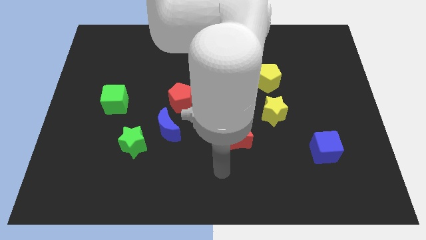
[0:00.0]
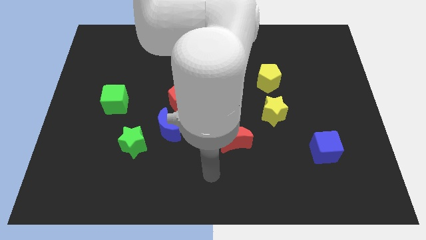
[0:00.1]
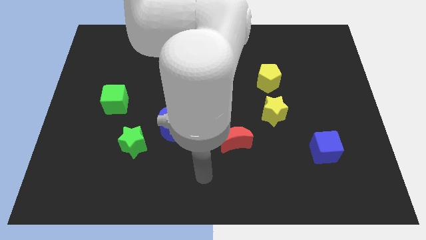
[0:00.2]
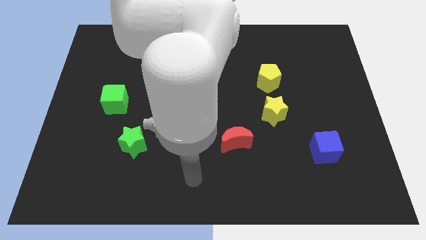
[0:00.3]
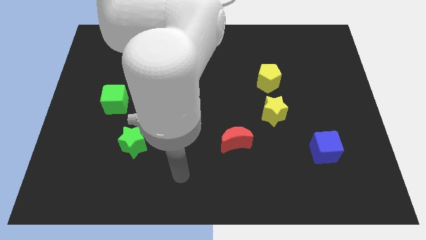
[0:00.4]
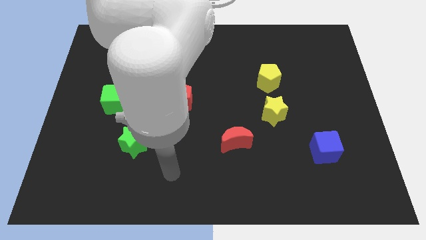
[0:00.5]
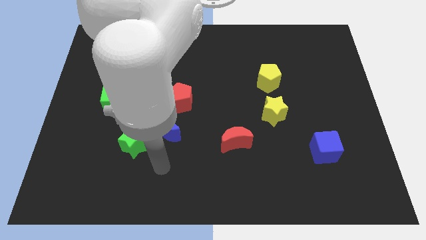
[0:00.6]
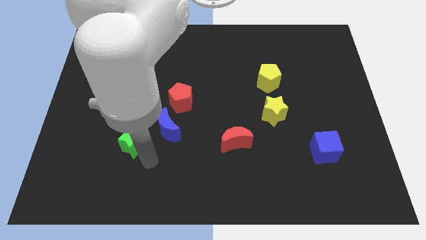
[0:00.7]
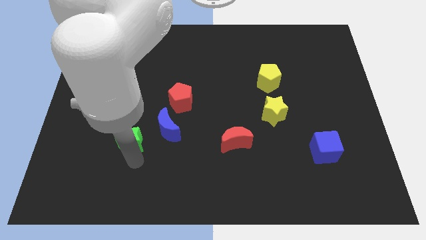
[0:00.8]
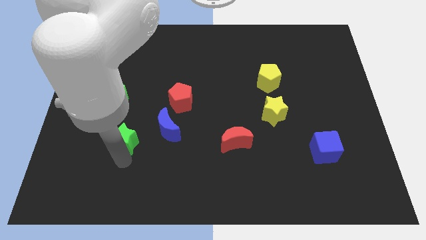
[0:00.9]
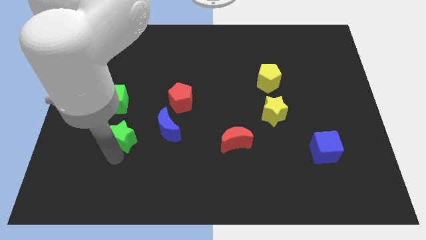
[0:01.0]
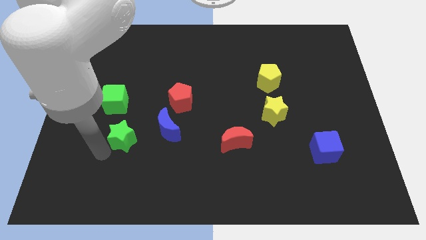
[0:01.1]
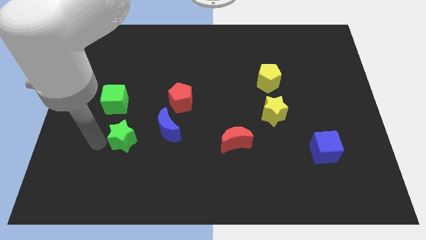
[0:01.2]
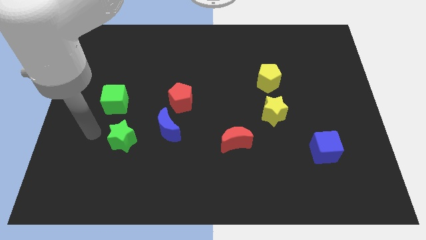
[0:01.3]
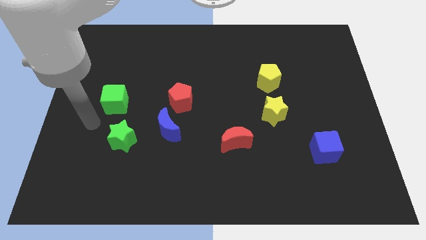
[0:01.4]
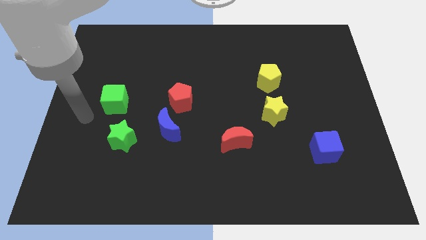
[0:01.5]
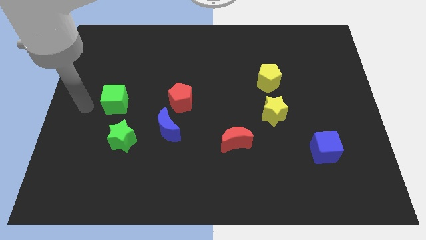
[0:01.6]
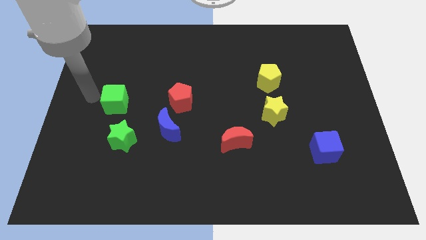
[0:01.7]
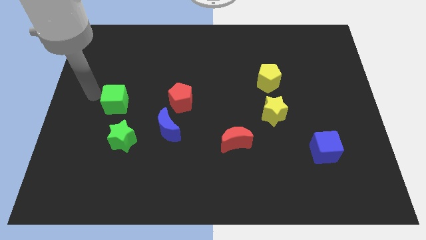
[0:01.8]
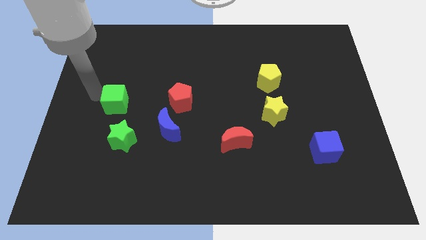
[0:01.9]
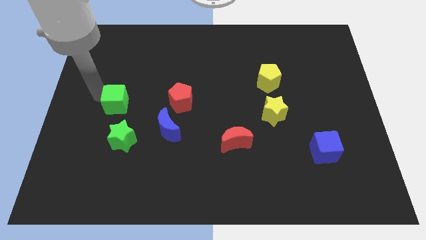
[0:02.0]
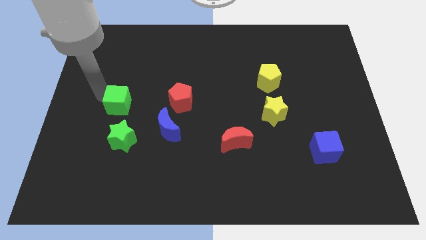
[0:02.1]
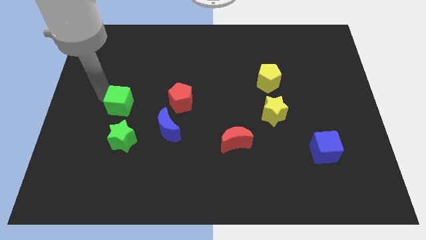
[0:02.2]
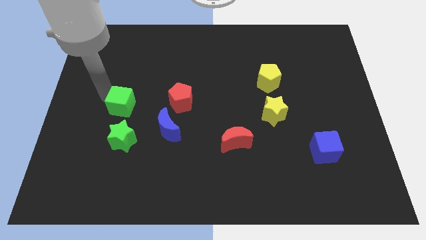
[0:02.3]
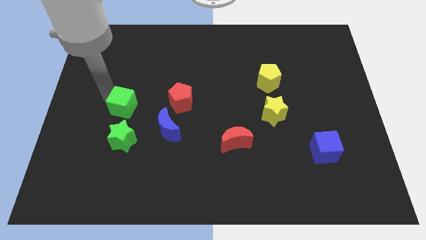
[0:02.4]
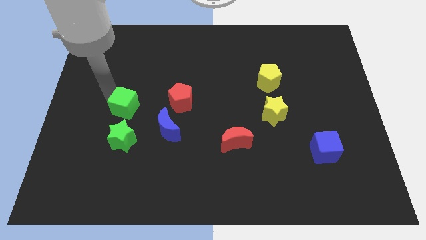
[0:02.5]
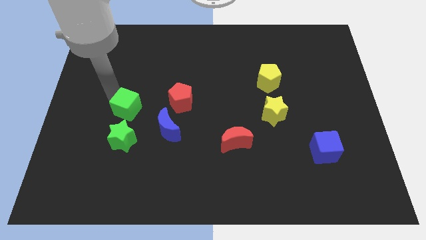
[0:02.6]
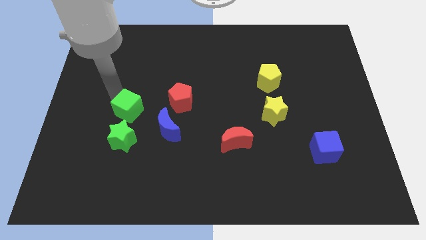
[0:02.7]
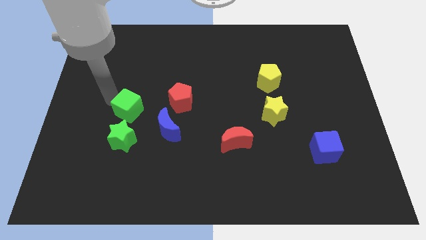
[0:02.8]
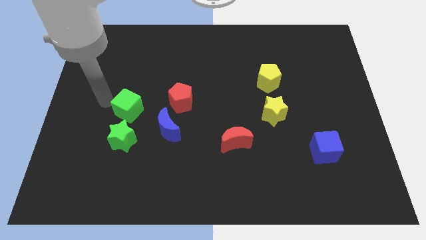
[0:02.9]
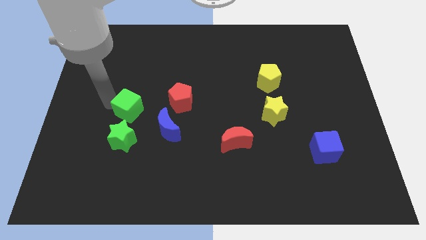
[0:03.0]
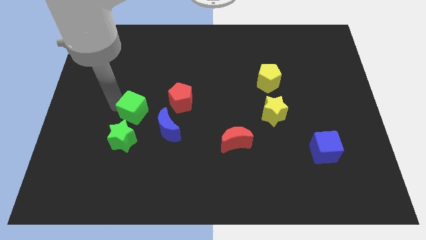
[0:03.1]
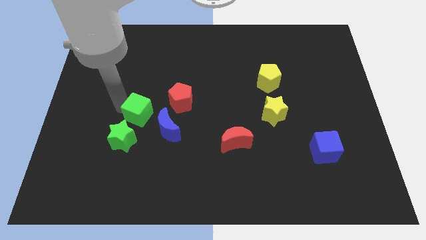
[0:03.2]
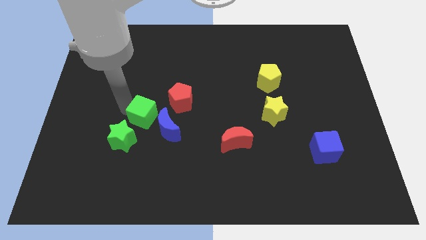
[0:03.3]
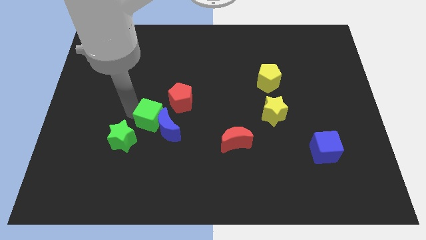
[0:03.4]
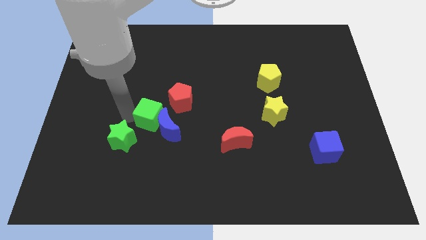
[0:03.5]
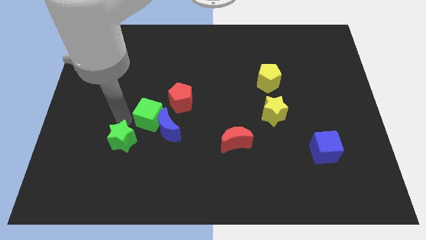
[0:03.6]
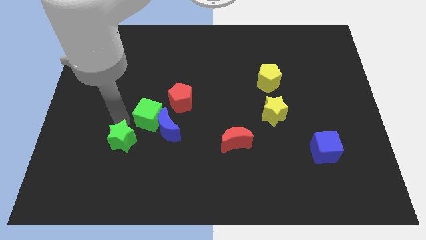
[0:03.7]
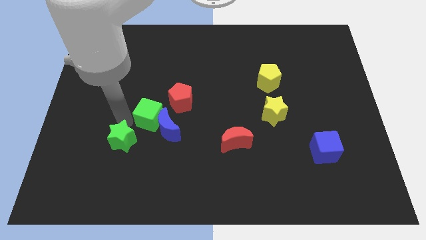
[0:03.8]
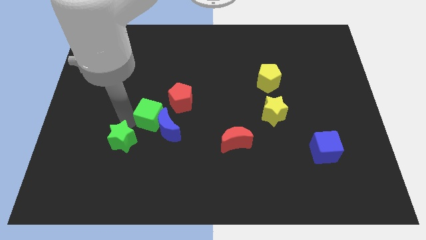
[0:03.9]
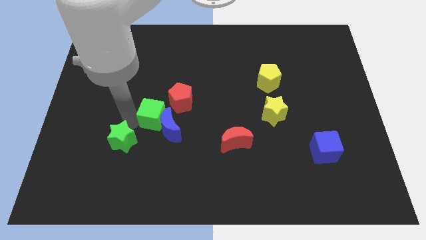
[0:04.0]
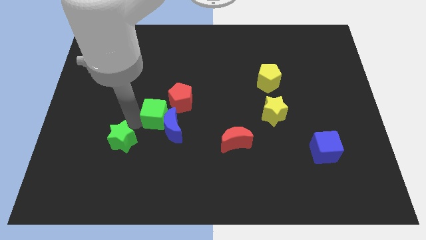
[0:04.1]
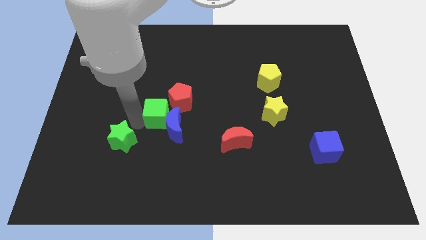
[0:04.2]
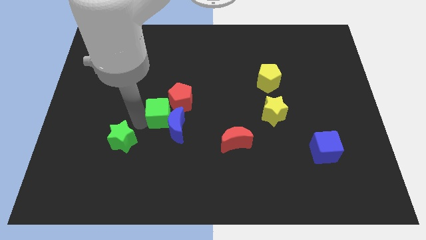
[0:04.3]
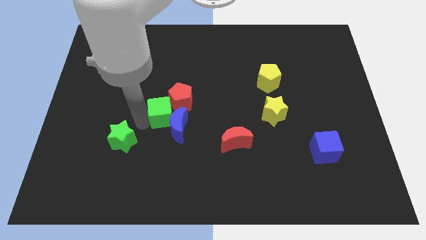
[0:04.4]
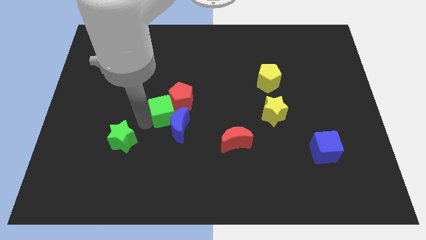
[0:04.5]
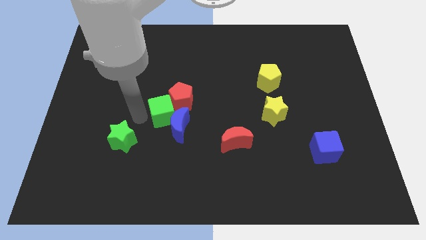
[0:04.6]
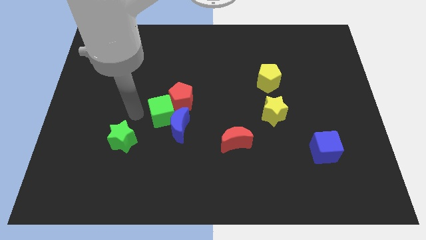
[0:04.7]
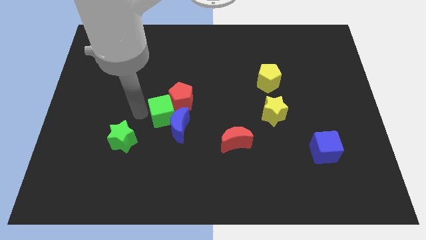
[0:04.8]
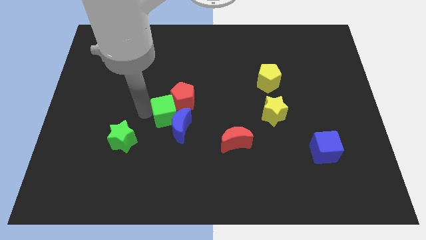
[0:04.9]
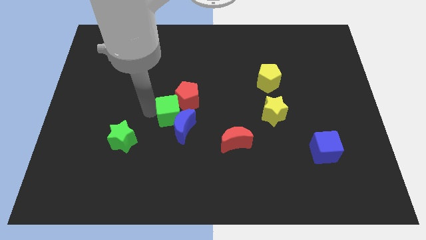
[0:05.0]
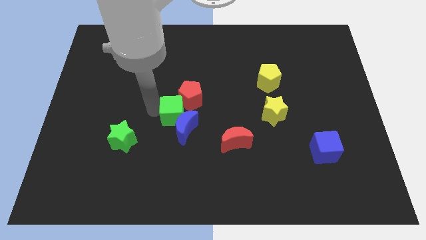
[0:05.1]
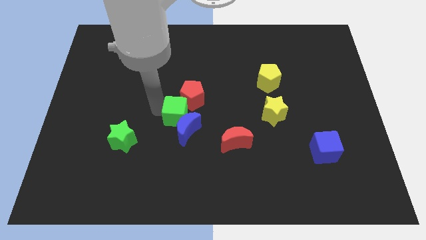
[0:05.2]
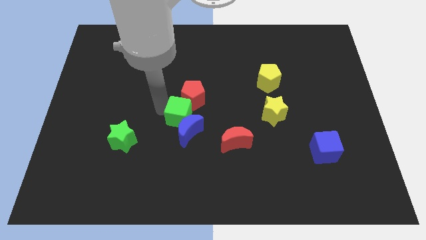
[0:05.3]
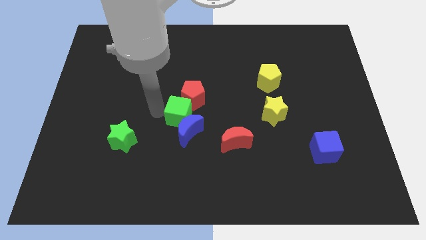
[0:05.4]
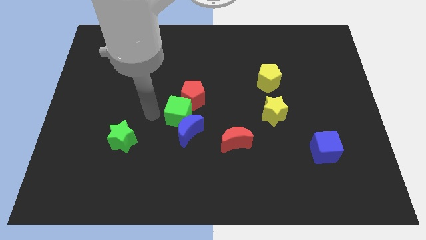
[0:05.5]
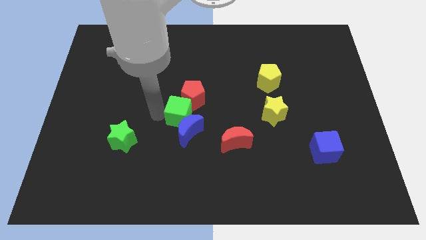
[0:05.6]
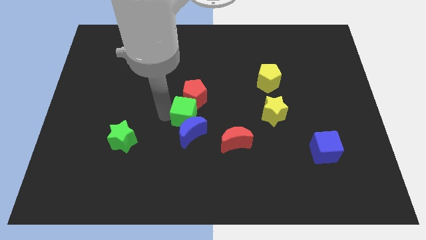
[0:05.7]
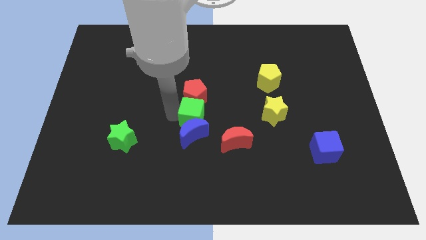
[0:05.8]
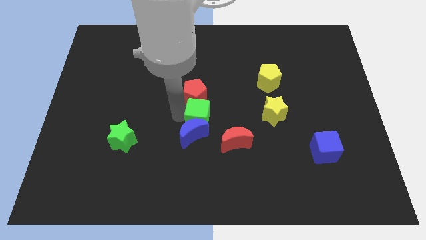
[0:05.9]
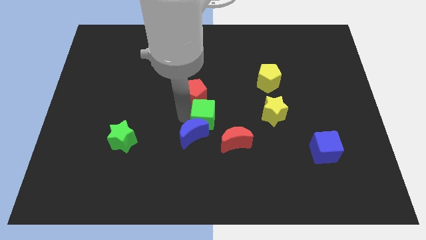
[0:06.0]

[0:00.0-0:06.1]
slide the green cube right

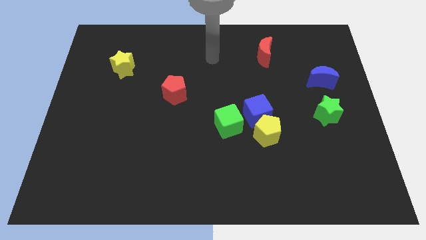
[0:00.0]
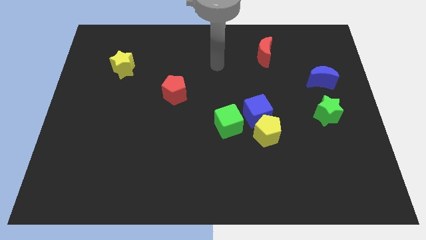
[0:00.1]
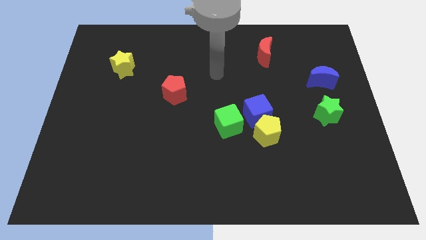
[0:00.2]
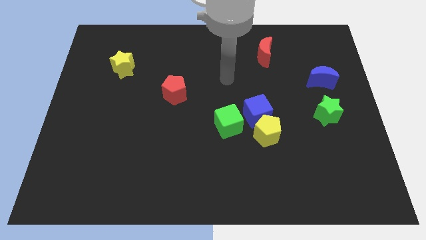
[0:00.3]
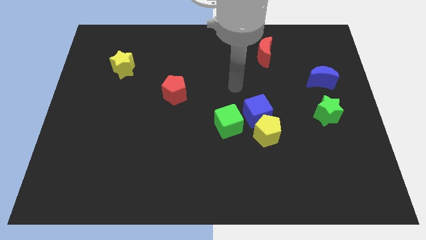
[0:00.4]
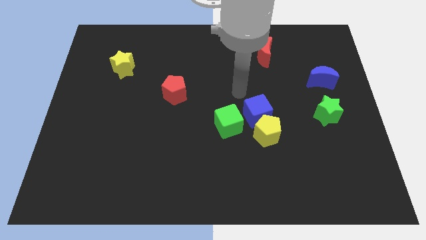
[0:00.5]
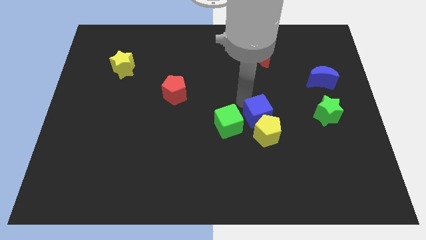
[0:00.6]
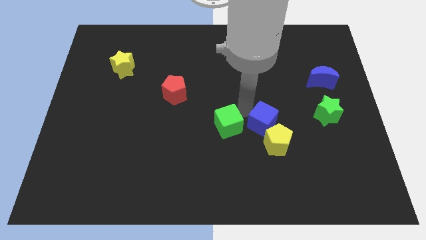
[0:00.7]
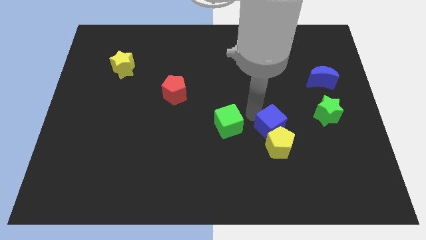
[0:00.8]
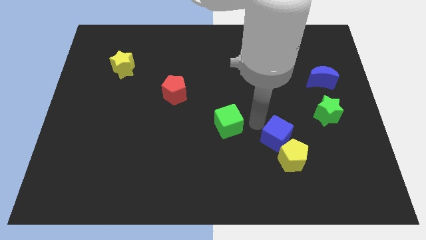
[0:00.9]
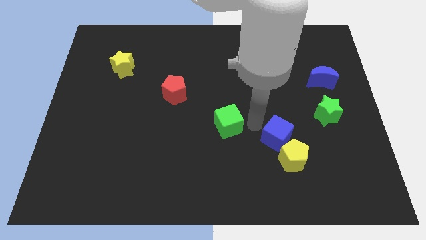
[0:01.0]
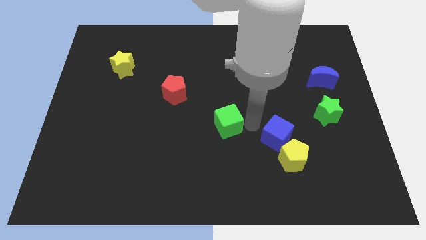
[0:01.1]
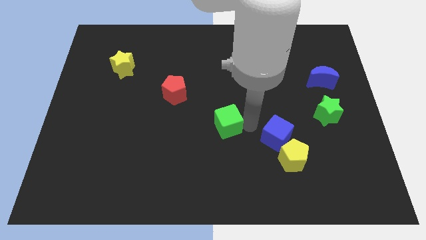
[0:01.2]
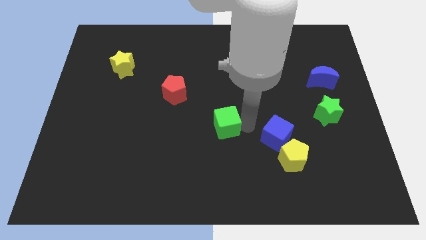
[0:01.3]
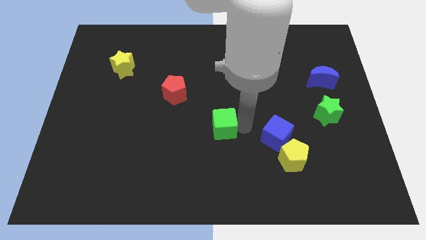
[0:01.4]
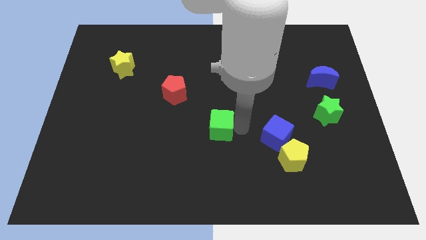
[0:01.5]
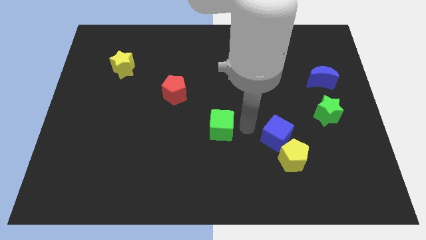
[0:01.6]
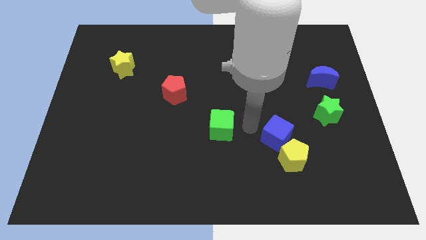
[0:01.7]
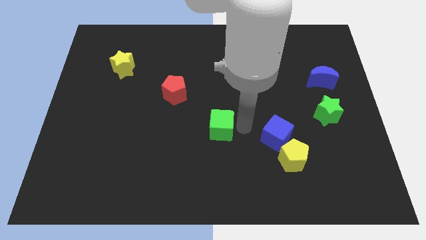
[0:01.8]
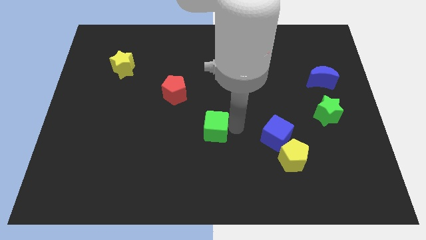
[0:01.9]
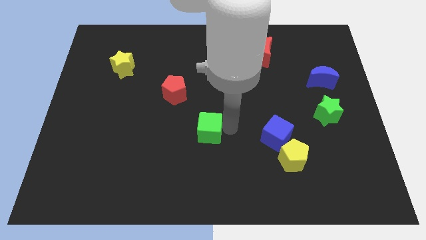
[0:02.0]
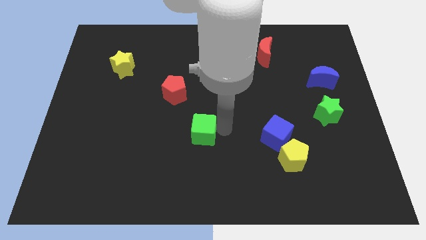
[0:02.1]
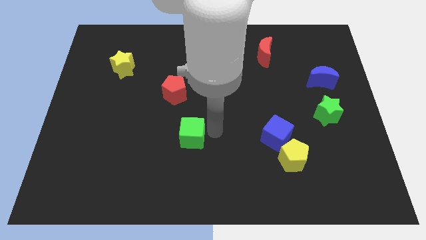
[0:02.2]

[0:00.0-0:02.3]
slightly move the green cube left
